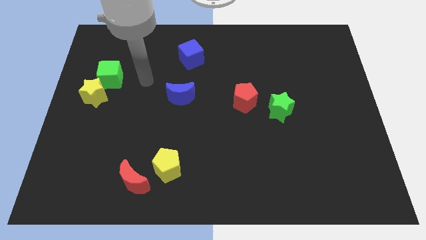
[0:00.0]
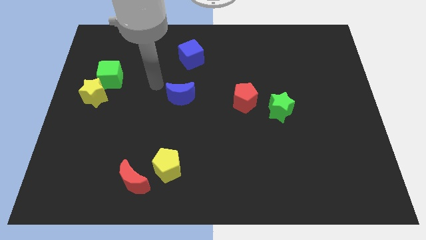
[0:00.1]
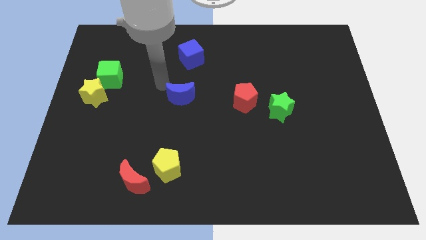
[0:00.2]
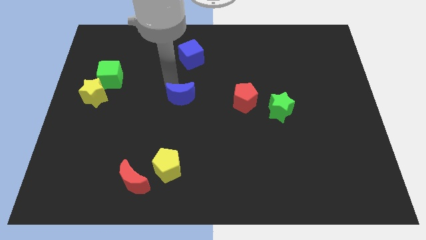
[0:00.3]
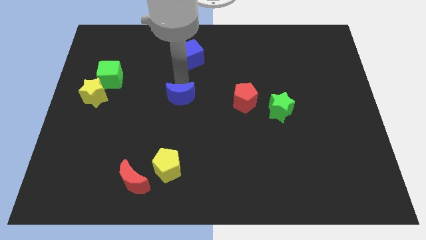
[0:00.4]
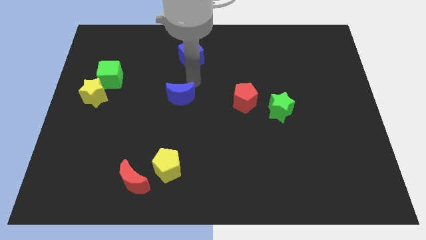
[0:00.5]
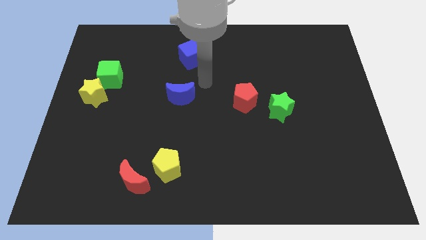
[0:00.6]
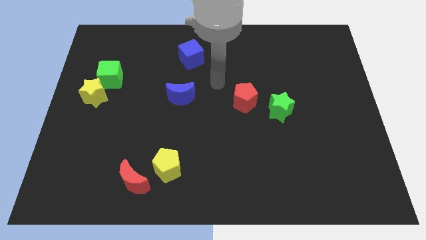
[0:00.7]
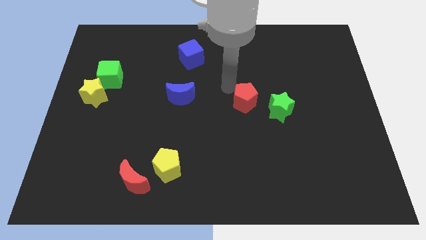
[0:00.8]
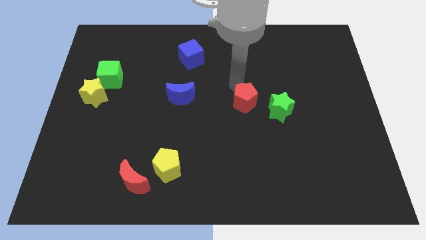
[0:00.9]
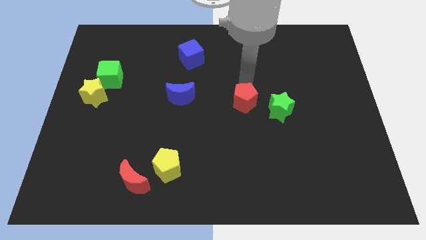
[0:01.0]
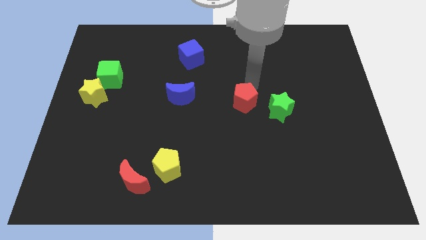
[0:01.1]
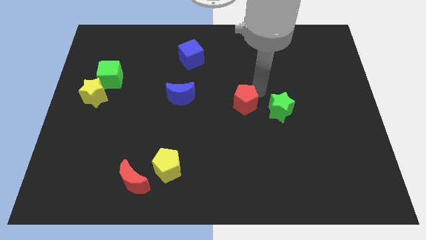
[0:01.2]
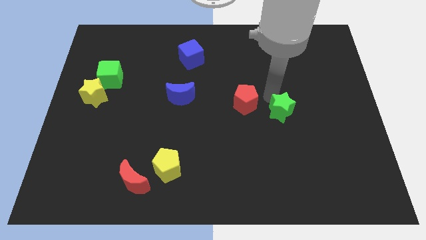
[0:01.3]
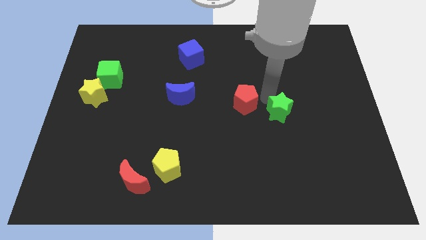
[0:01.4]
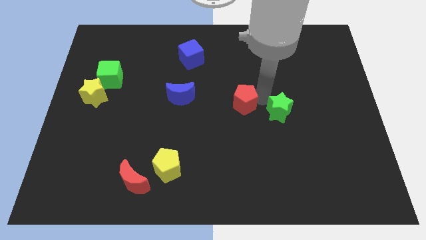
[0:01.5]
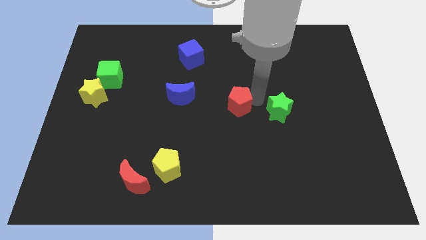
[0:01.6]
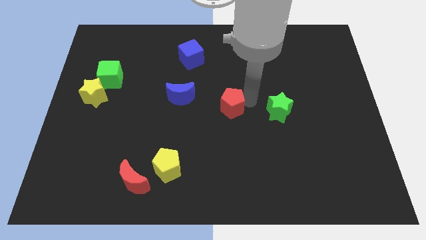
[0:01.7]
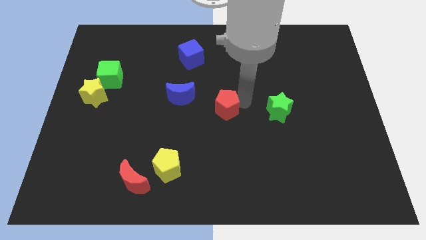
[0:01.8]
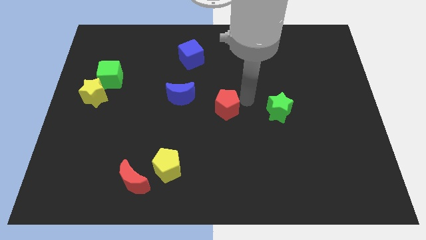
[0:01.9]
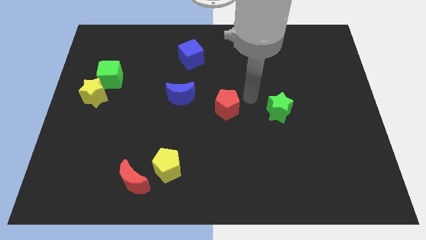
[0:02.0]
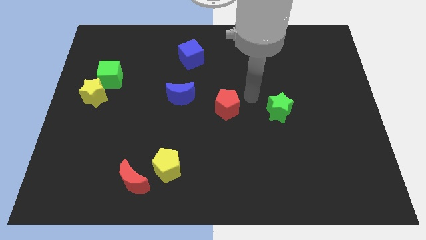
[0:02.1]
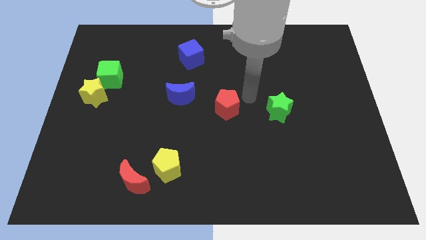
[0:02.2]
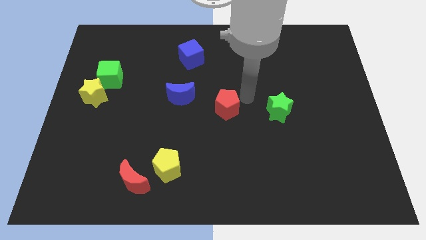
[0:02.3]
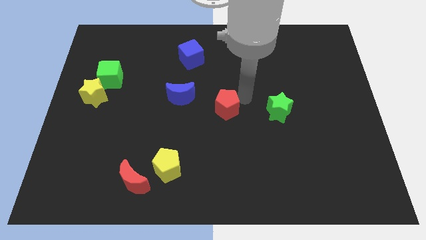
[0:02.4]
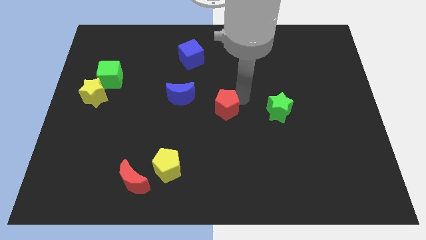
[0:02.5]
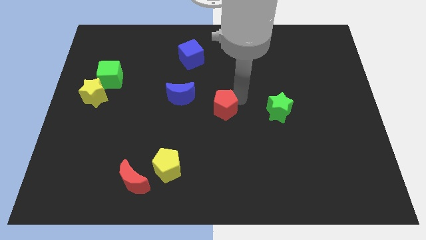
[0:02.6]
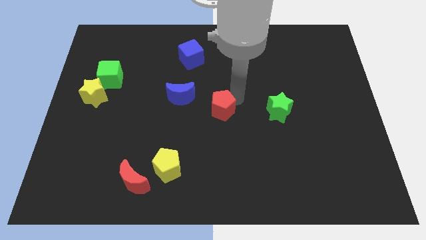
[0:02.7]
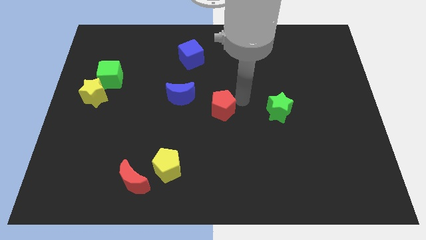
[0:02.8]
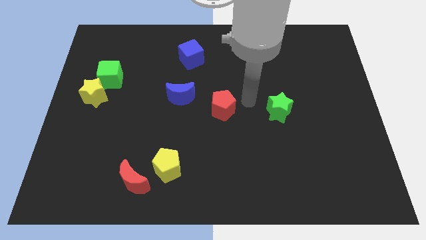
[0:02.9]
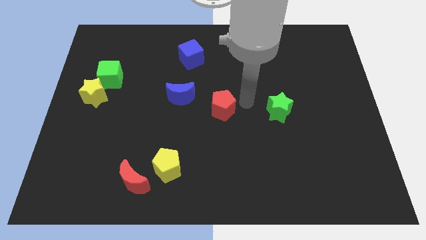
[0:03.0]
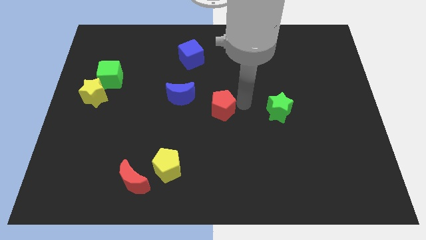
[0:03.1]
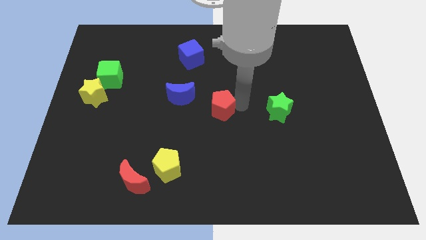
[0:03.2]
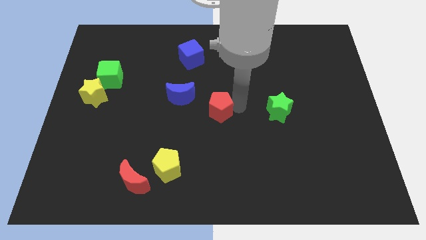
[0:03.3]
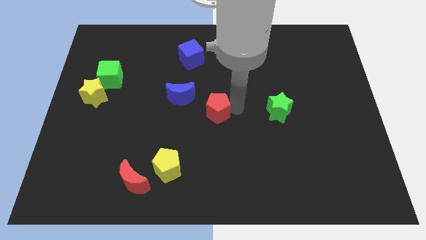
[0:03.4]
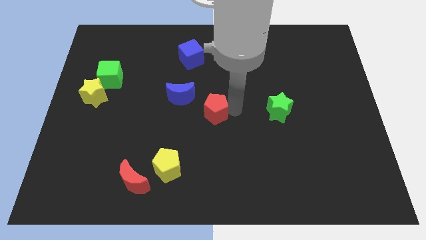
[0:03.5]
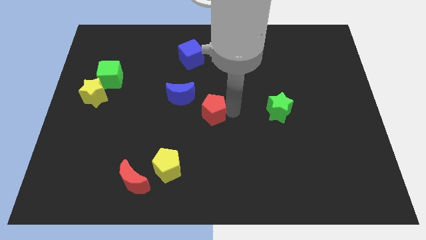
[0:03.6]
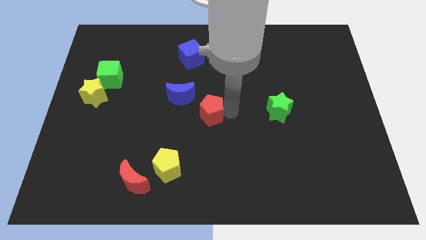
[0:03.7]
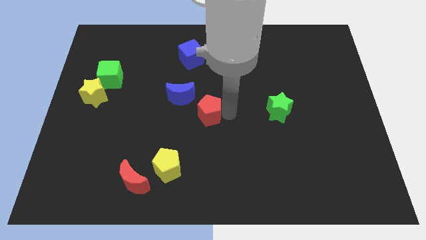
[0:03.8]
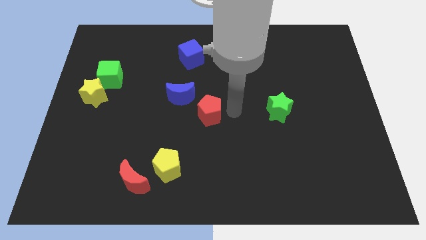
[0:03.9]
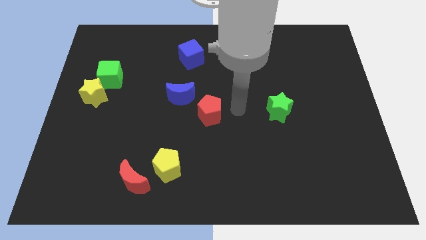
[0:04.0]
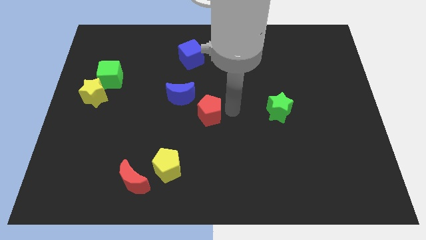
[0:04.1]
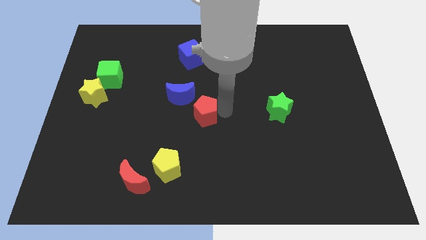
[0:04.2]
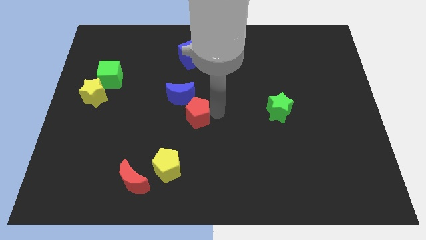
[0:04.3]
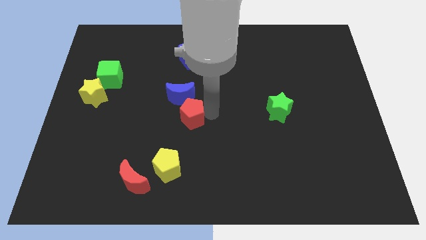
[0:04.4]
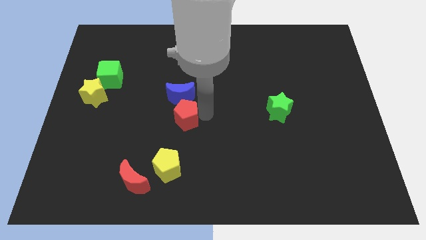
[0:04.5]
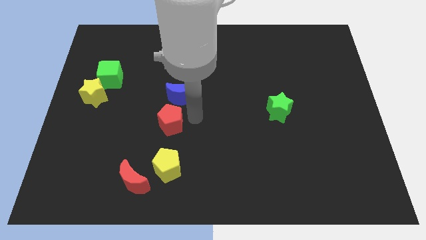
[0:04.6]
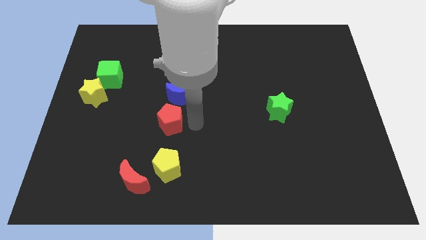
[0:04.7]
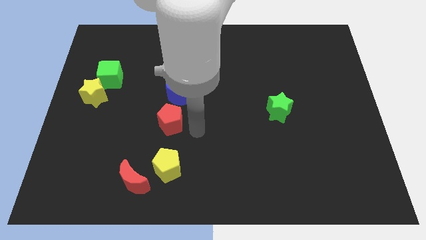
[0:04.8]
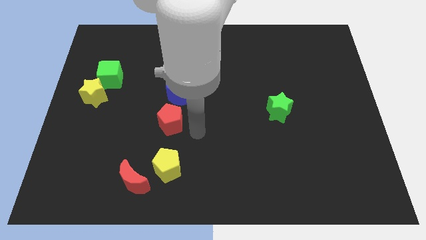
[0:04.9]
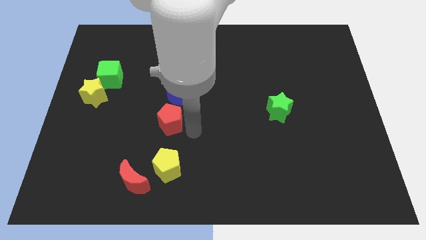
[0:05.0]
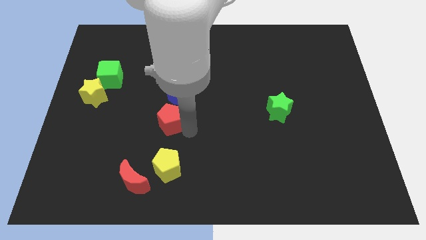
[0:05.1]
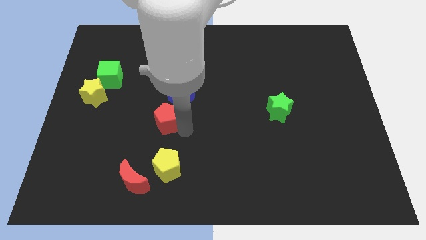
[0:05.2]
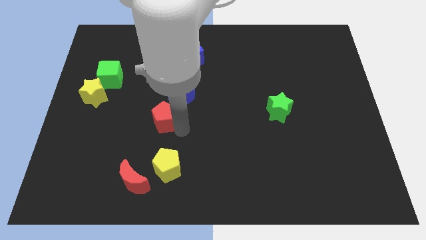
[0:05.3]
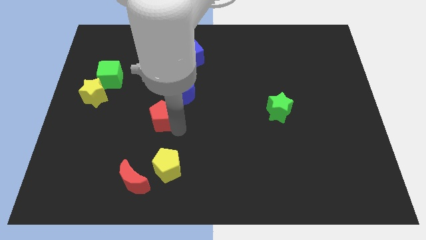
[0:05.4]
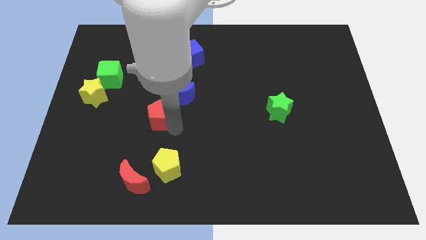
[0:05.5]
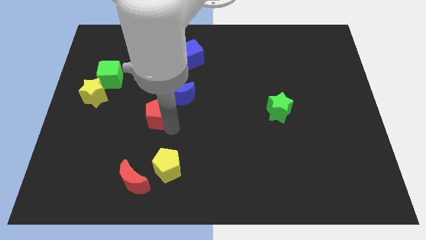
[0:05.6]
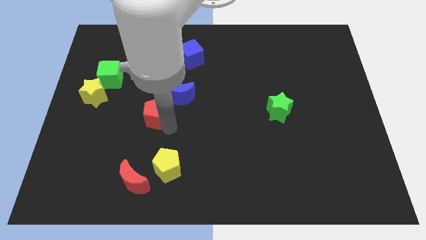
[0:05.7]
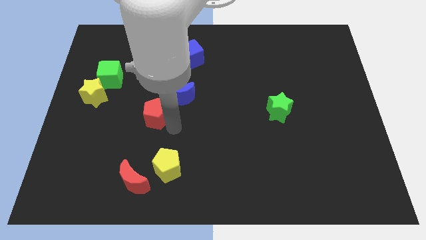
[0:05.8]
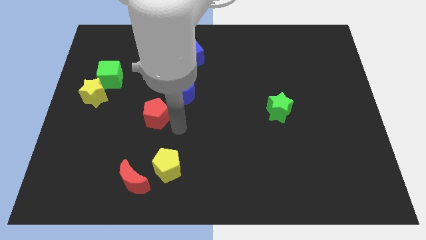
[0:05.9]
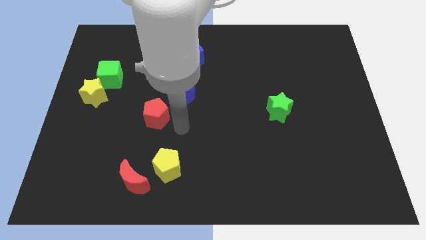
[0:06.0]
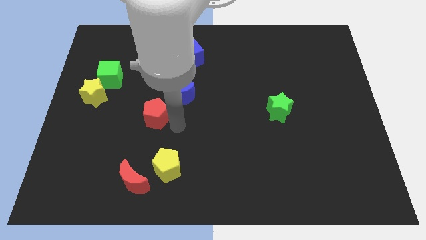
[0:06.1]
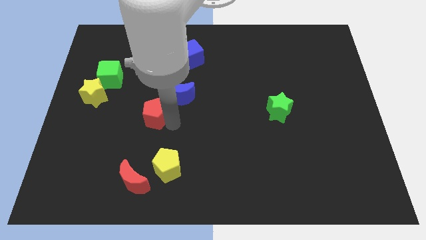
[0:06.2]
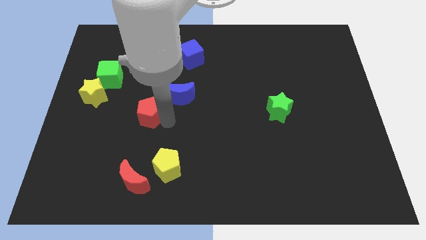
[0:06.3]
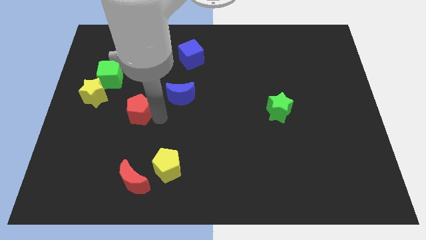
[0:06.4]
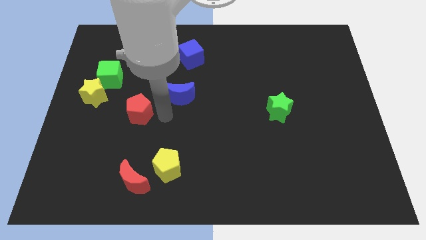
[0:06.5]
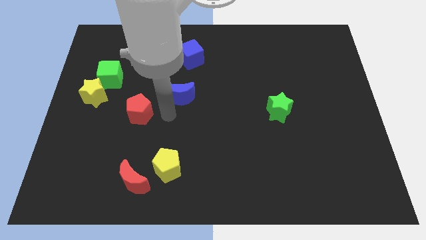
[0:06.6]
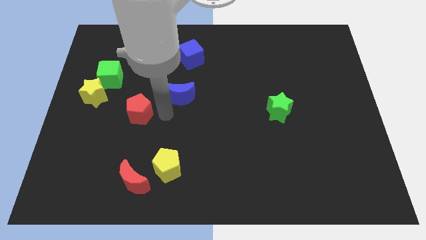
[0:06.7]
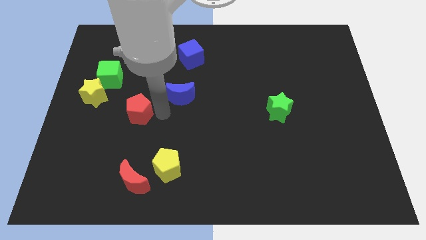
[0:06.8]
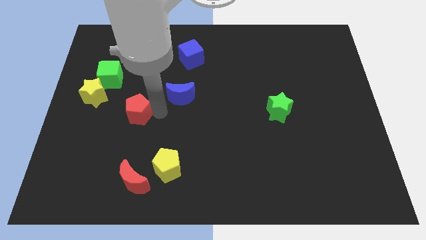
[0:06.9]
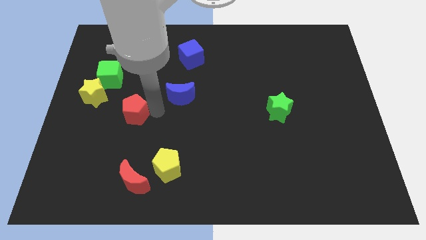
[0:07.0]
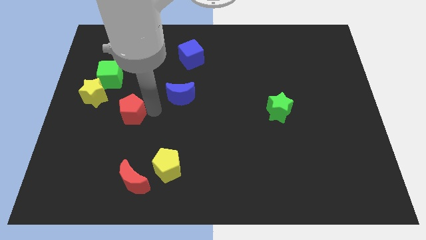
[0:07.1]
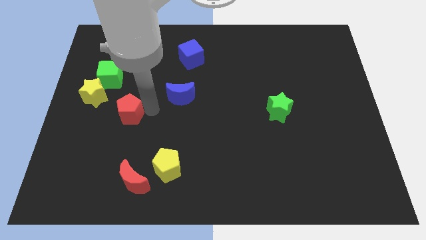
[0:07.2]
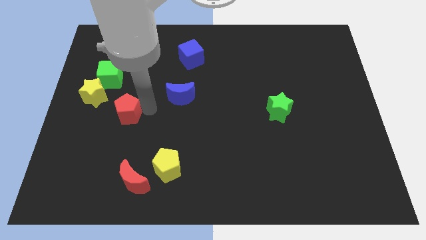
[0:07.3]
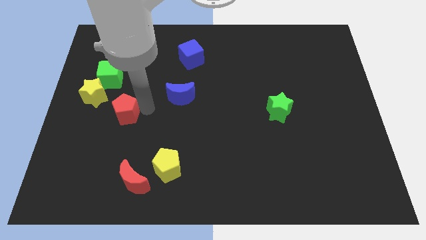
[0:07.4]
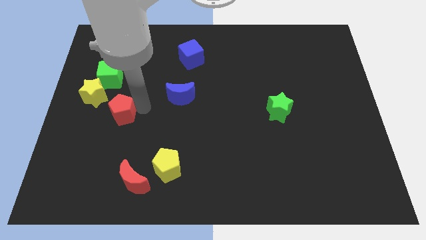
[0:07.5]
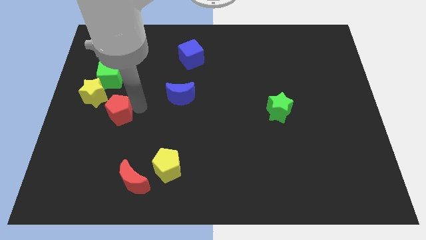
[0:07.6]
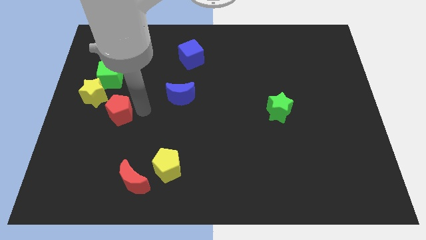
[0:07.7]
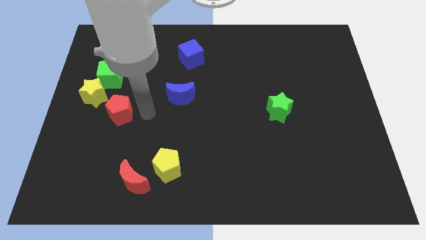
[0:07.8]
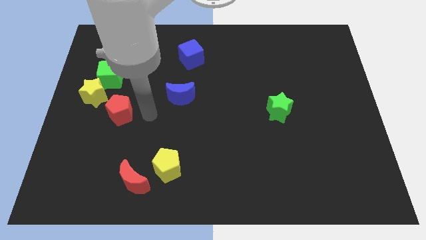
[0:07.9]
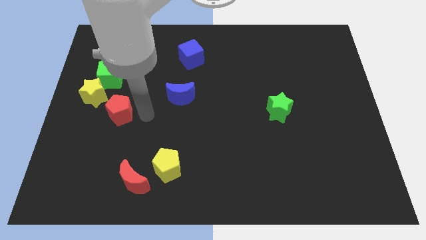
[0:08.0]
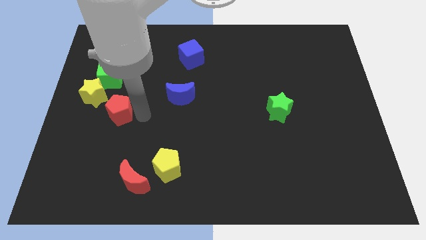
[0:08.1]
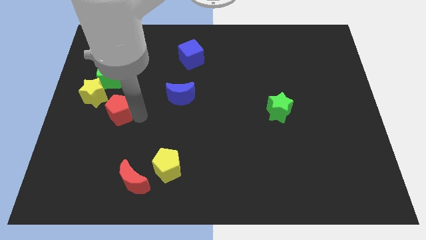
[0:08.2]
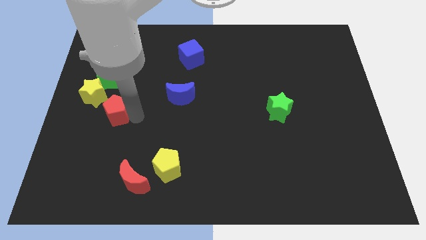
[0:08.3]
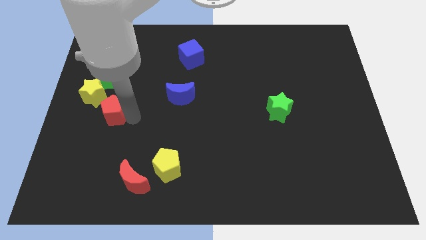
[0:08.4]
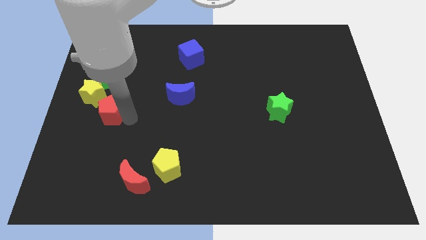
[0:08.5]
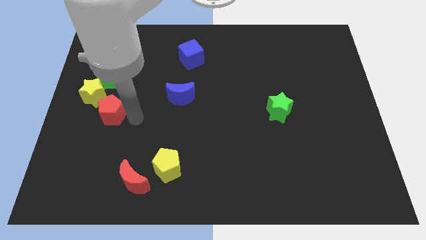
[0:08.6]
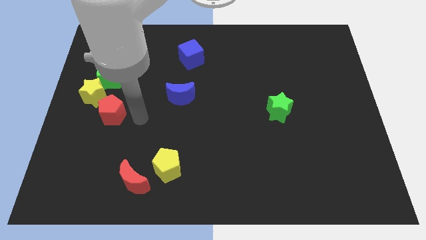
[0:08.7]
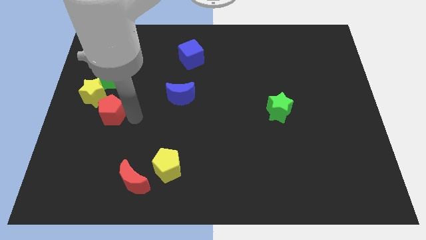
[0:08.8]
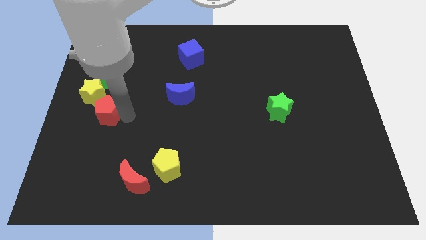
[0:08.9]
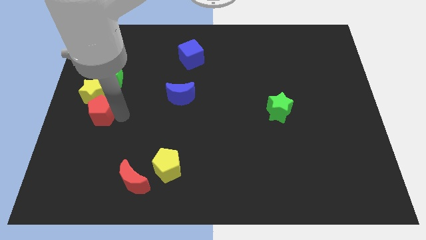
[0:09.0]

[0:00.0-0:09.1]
put the red pentagon to the left side
